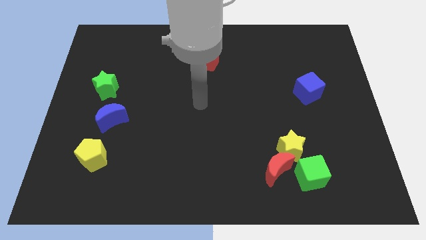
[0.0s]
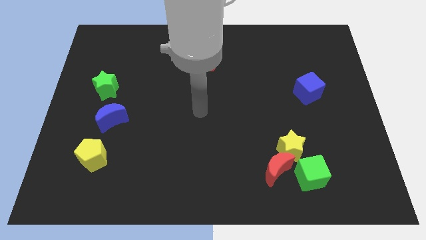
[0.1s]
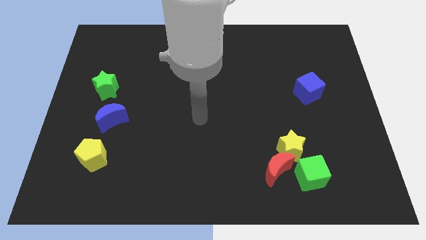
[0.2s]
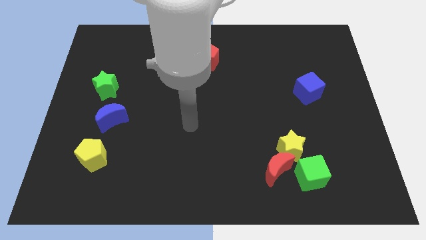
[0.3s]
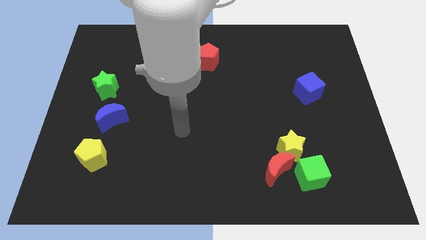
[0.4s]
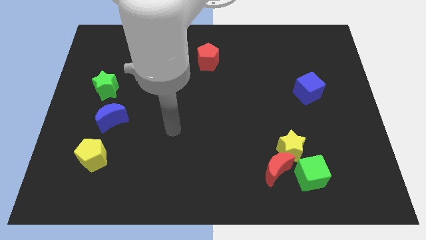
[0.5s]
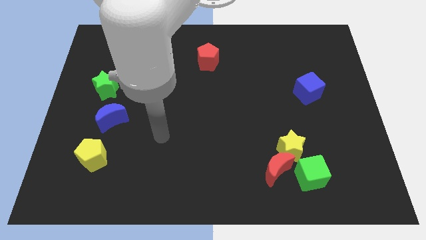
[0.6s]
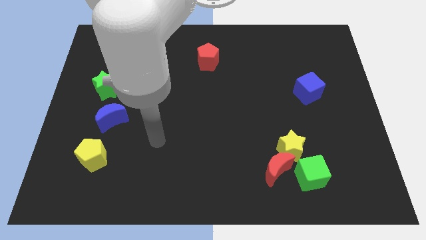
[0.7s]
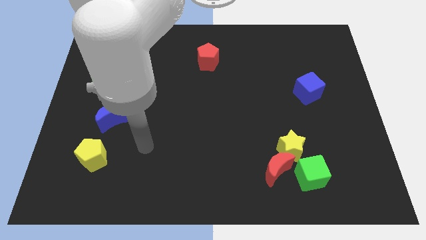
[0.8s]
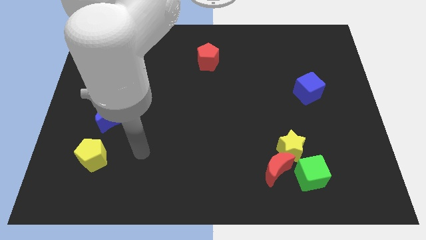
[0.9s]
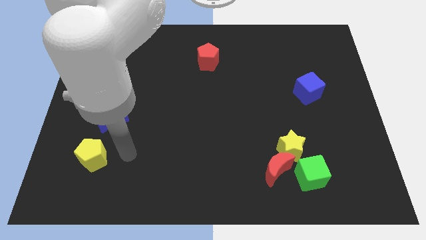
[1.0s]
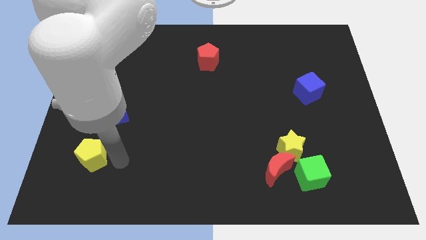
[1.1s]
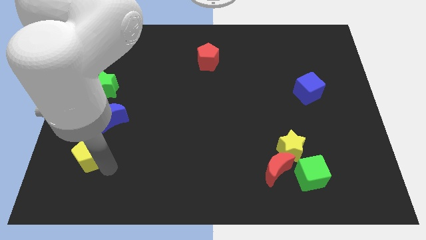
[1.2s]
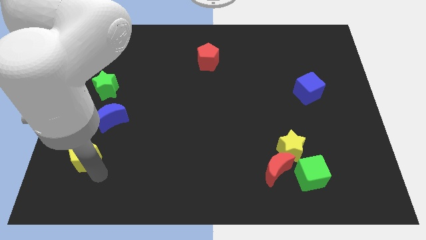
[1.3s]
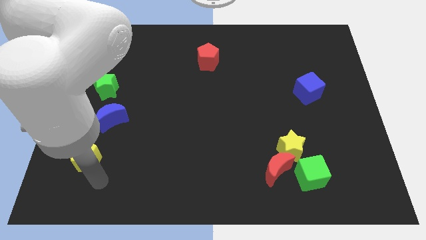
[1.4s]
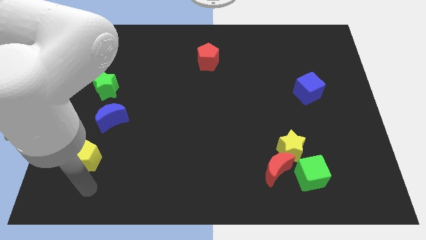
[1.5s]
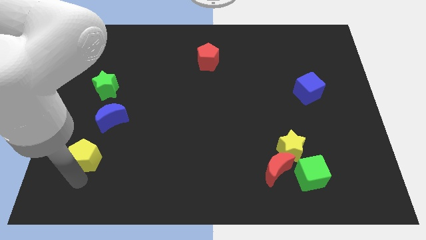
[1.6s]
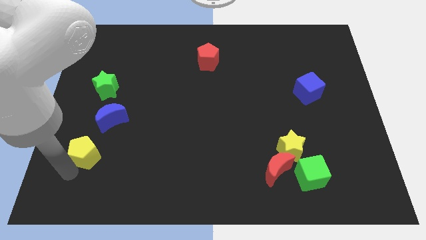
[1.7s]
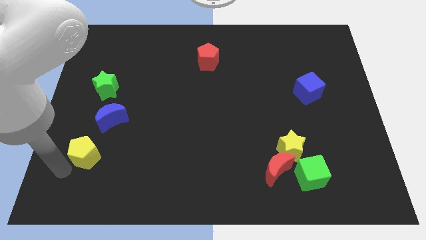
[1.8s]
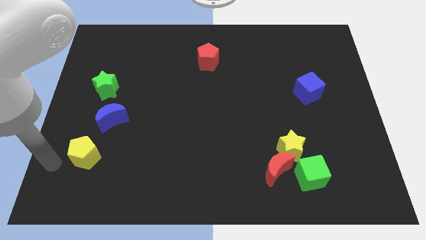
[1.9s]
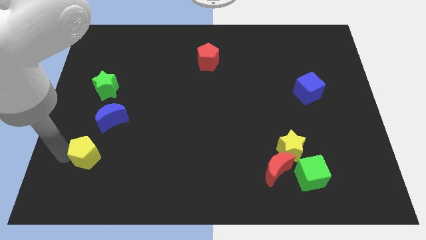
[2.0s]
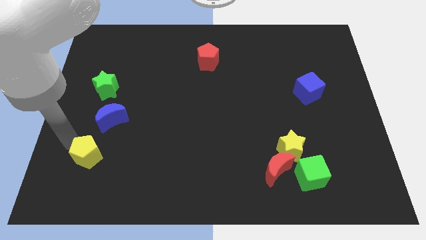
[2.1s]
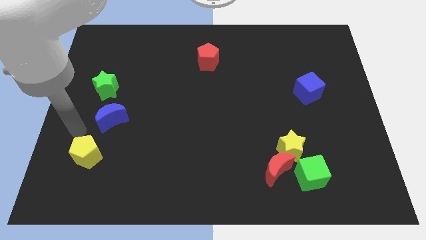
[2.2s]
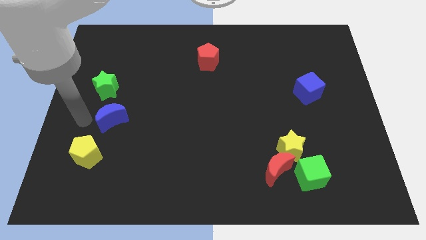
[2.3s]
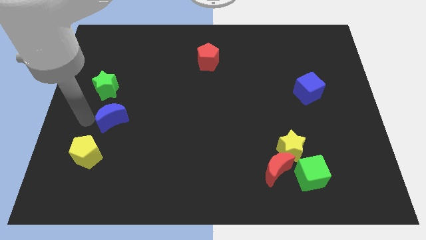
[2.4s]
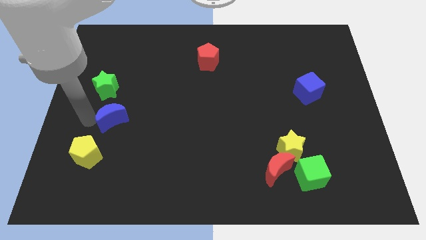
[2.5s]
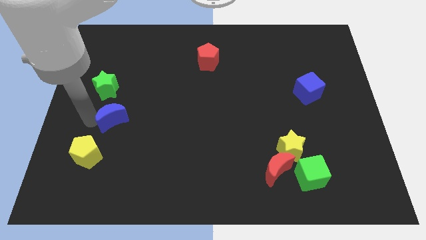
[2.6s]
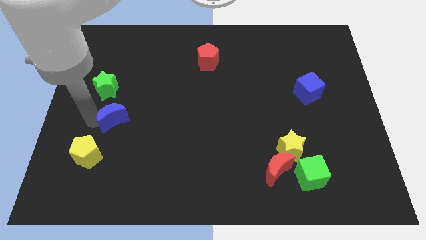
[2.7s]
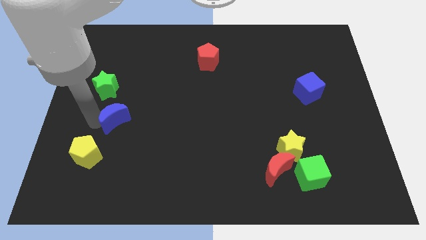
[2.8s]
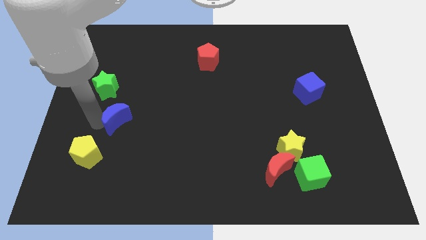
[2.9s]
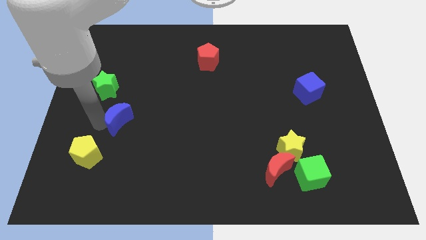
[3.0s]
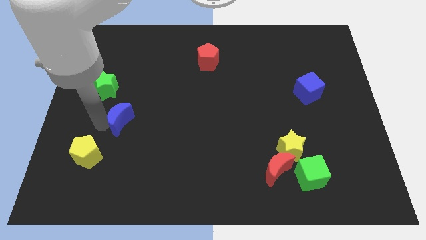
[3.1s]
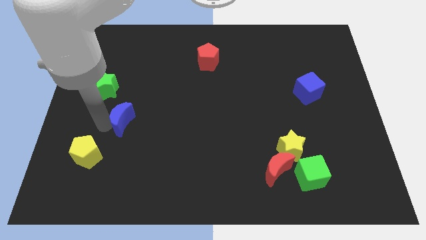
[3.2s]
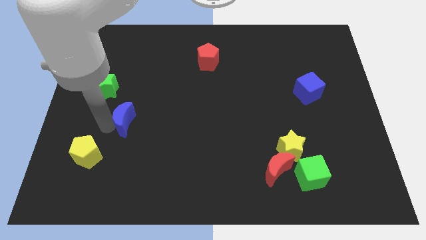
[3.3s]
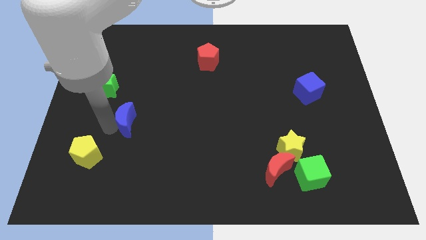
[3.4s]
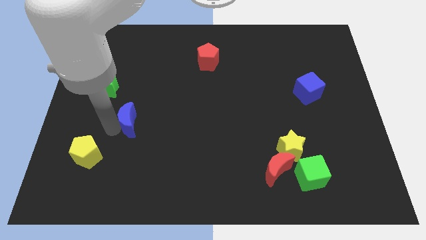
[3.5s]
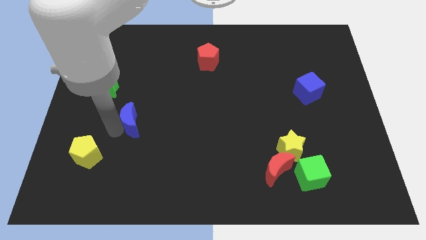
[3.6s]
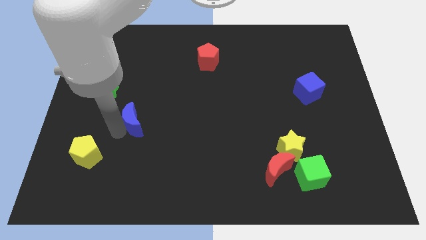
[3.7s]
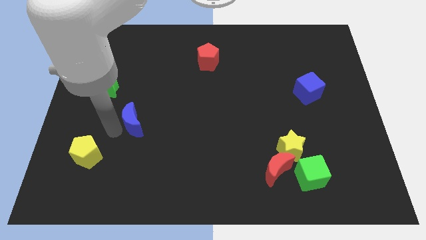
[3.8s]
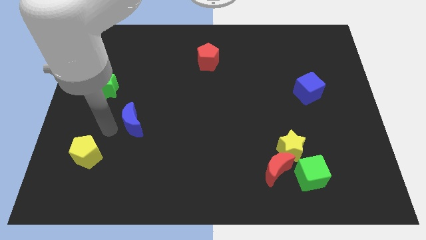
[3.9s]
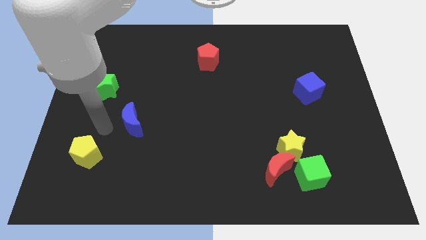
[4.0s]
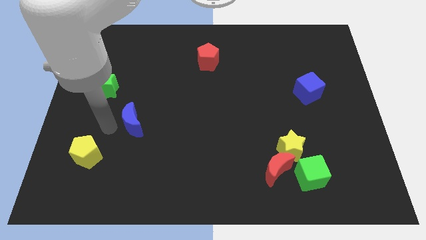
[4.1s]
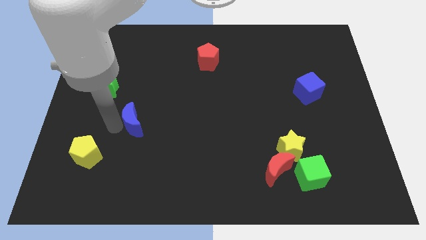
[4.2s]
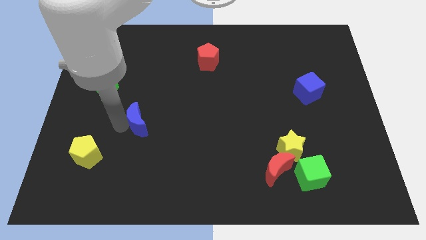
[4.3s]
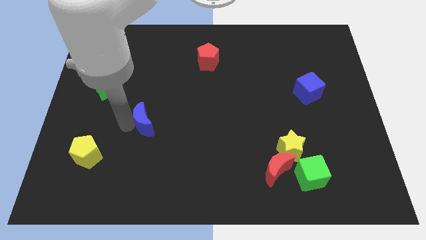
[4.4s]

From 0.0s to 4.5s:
slide the blue moon to the right slightly

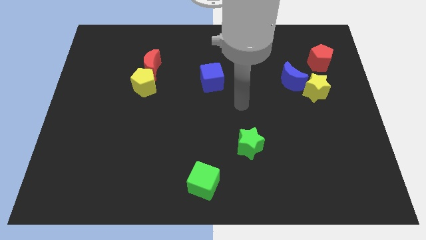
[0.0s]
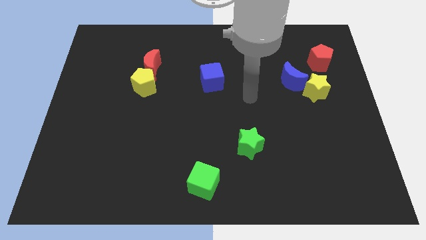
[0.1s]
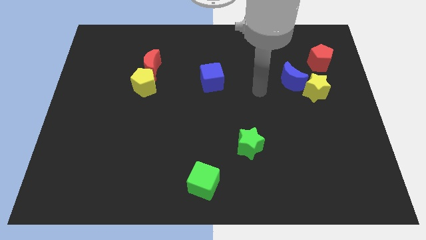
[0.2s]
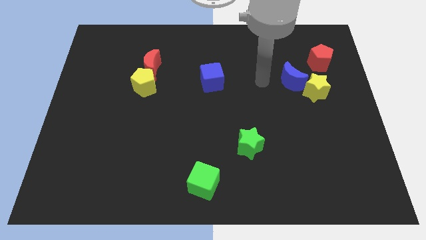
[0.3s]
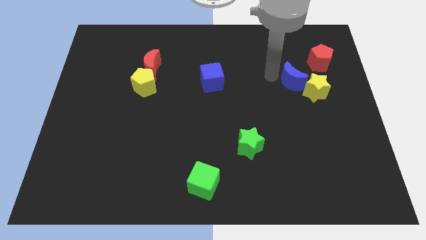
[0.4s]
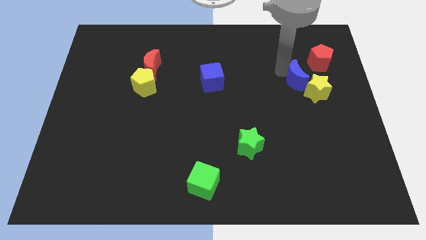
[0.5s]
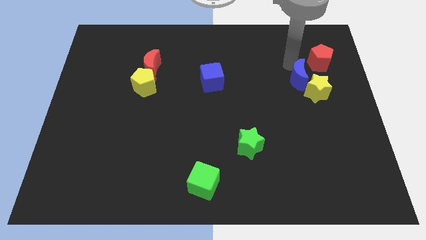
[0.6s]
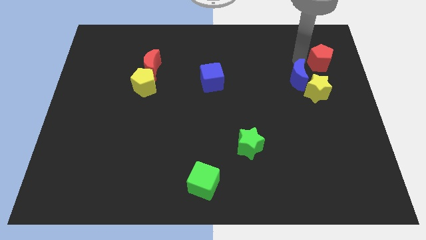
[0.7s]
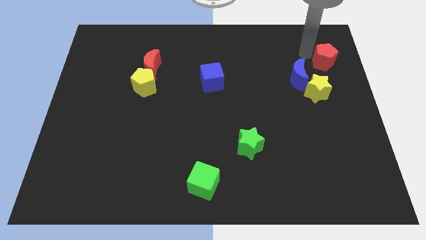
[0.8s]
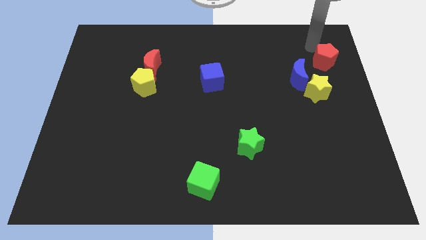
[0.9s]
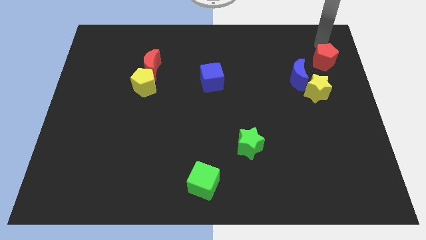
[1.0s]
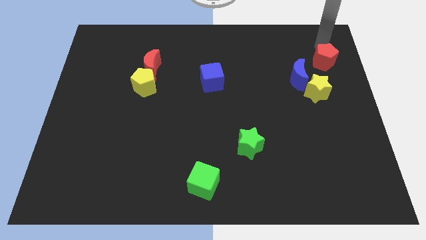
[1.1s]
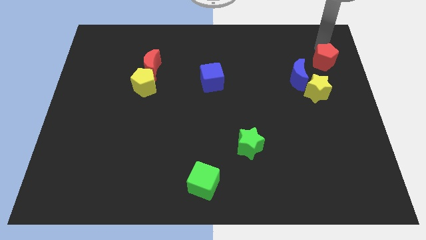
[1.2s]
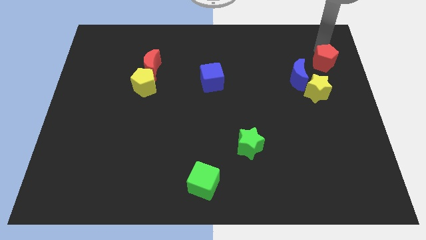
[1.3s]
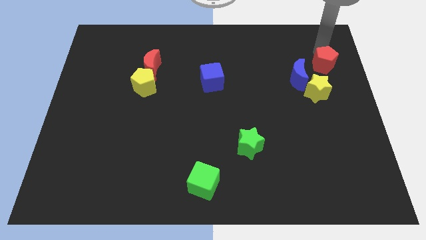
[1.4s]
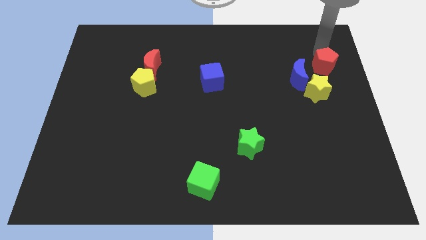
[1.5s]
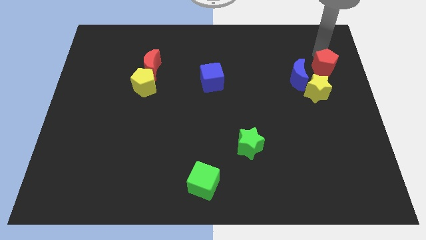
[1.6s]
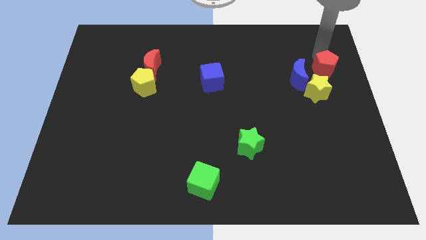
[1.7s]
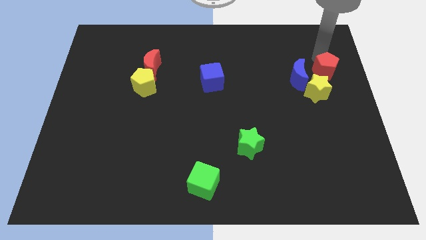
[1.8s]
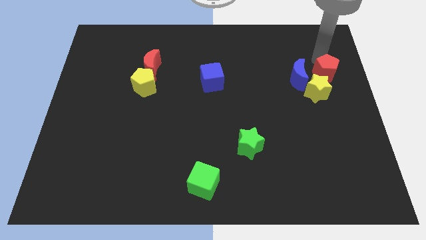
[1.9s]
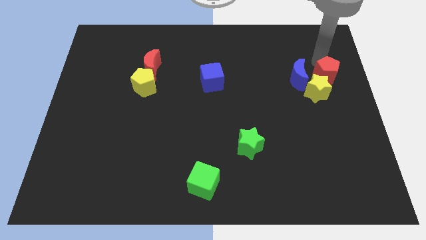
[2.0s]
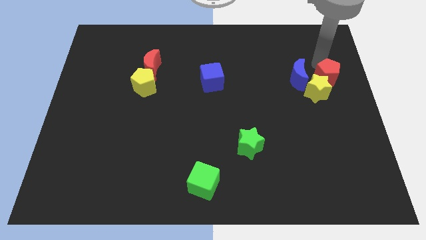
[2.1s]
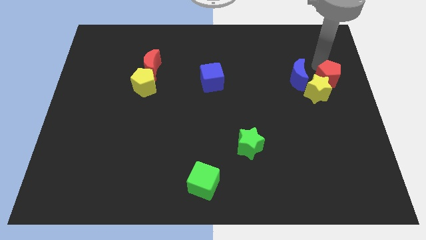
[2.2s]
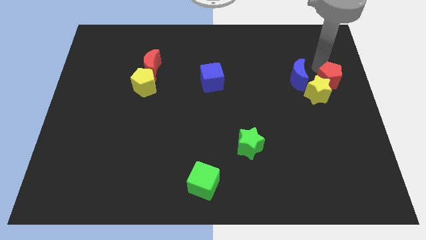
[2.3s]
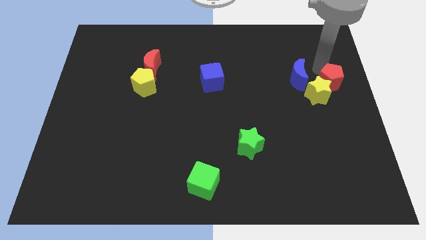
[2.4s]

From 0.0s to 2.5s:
push the red pentagon downwards slightly

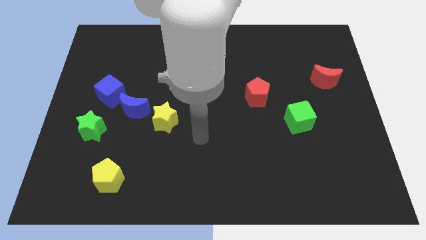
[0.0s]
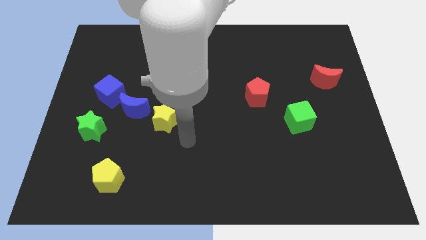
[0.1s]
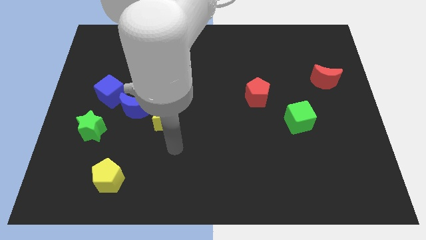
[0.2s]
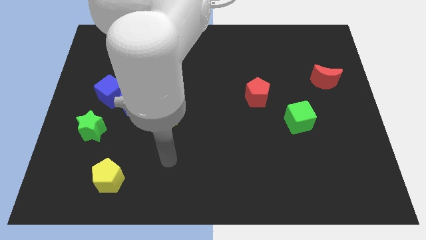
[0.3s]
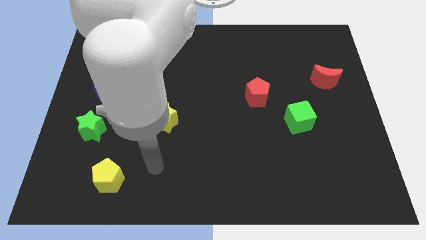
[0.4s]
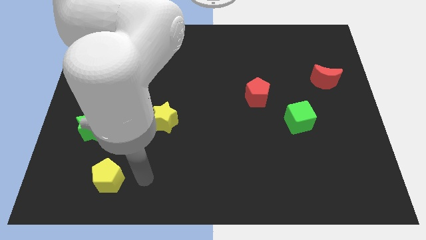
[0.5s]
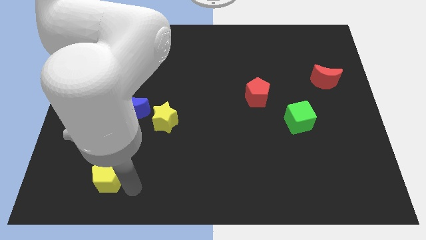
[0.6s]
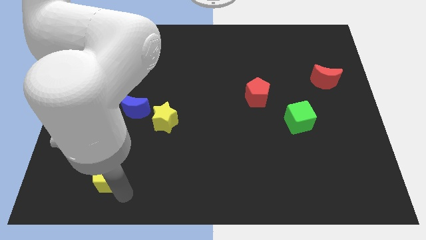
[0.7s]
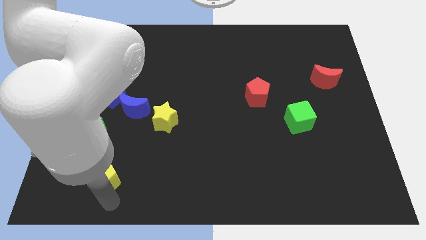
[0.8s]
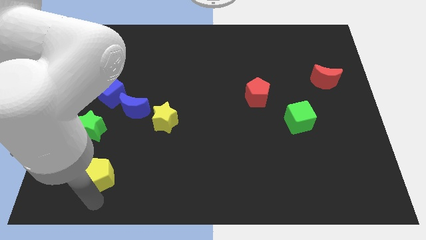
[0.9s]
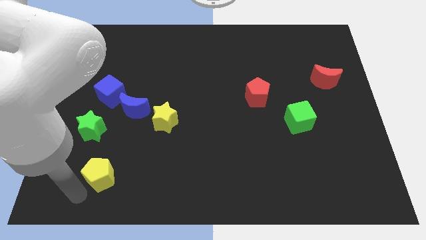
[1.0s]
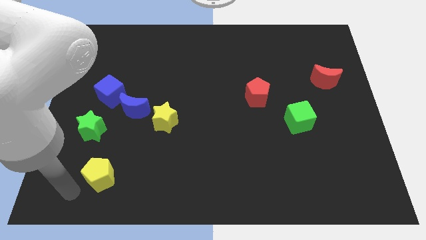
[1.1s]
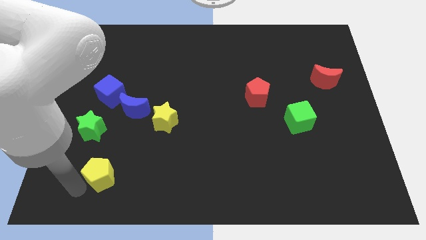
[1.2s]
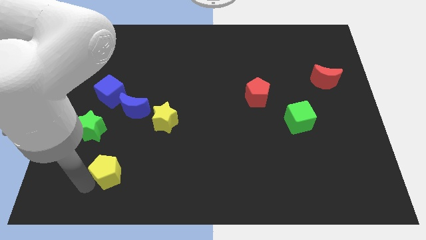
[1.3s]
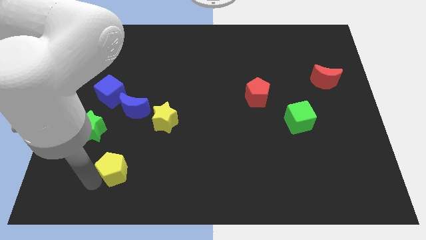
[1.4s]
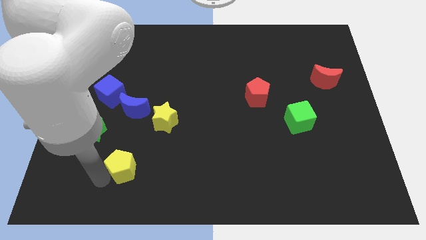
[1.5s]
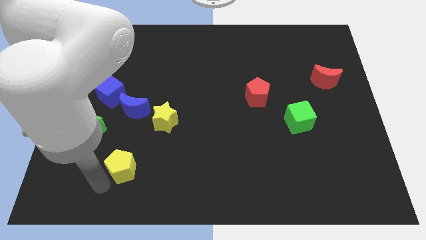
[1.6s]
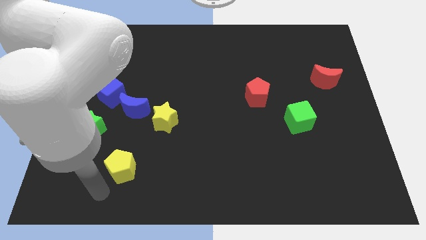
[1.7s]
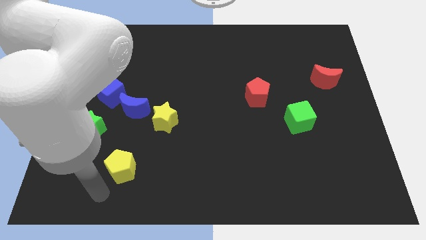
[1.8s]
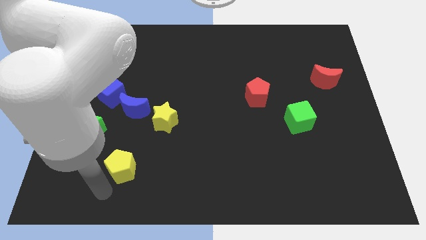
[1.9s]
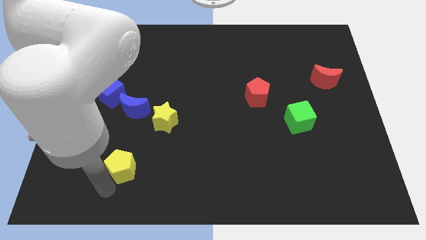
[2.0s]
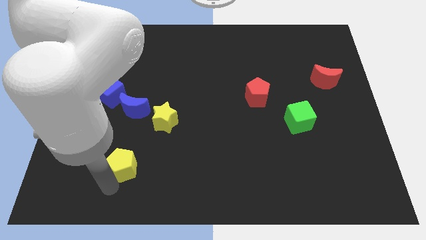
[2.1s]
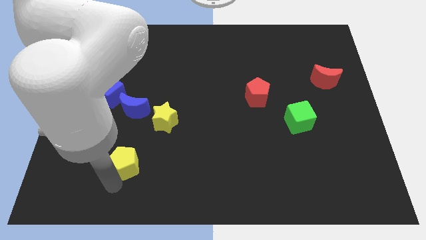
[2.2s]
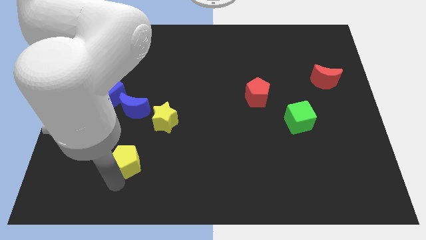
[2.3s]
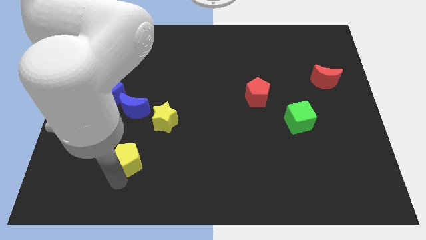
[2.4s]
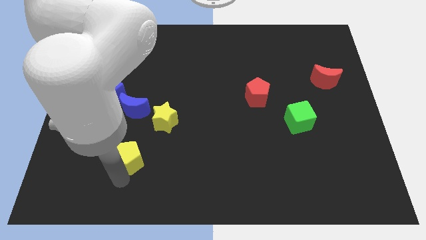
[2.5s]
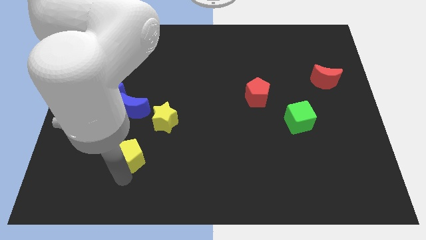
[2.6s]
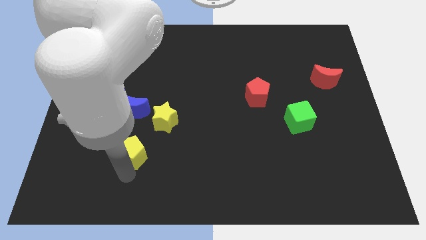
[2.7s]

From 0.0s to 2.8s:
move the yellow pentagon somewhat diagonally up and right
